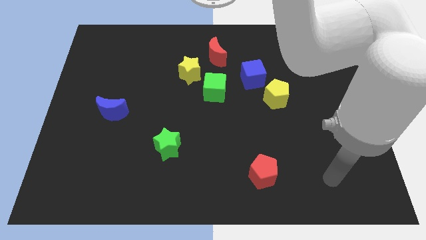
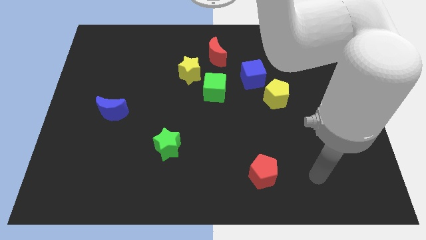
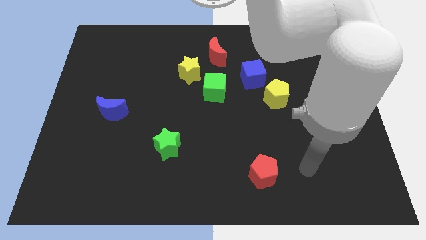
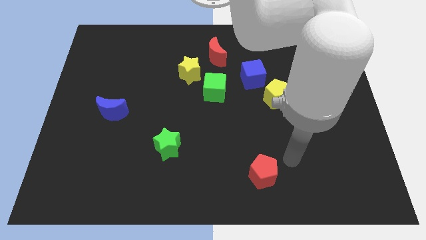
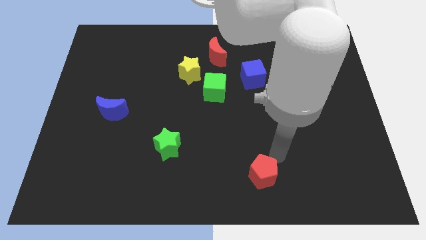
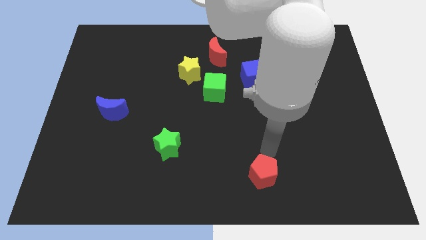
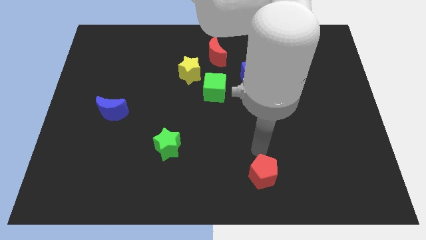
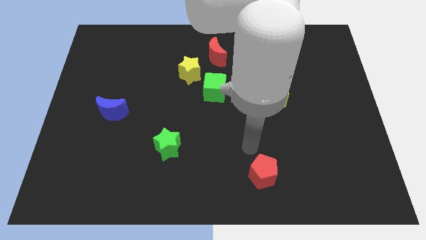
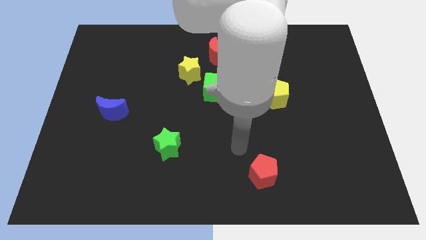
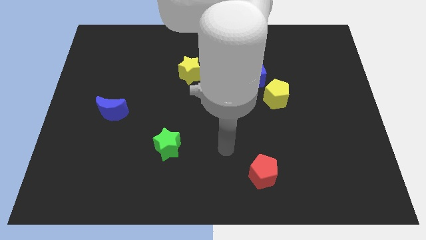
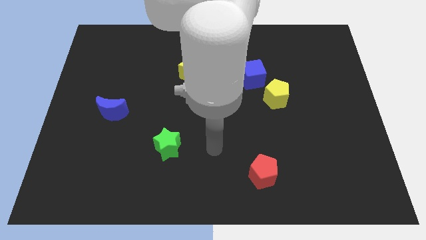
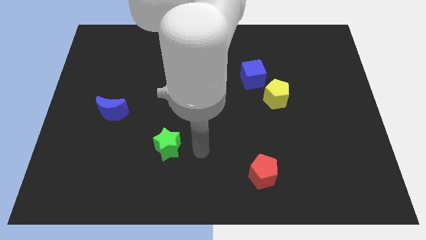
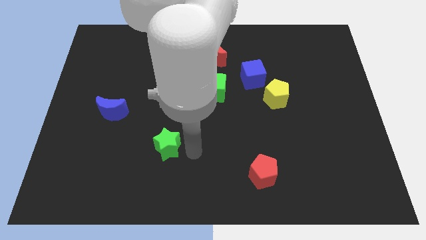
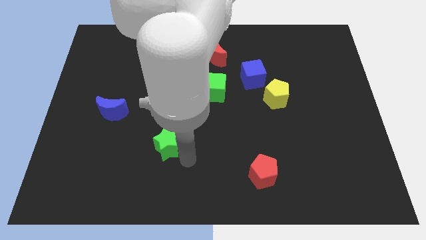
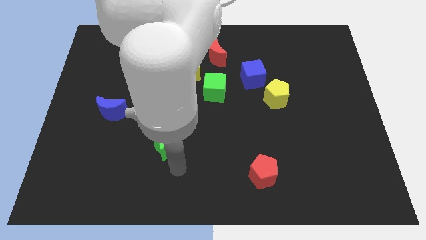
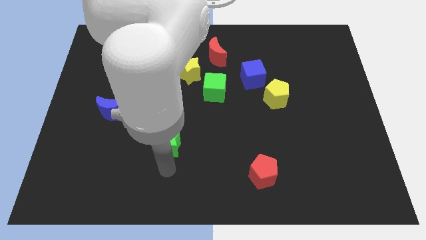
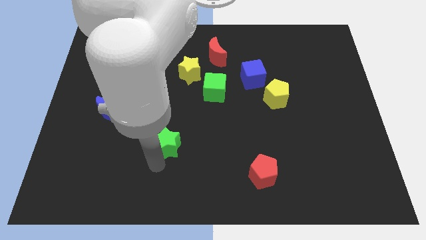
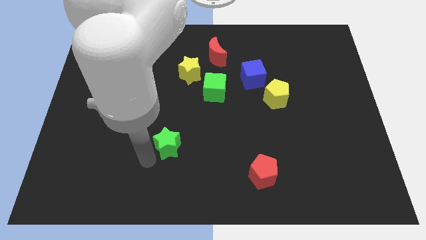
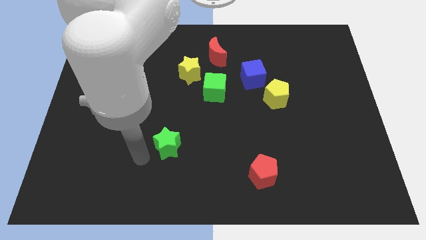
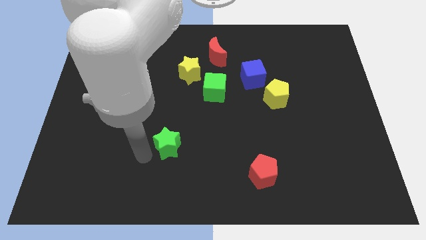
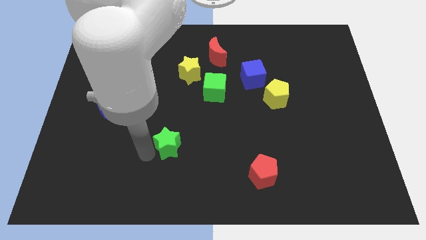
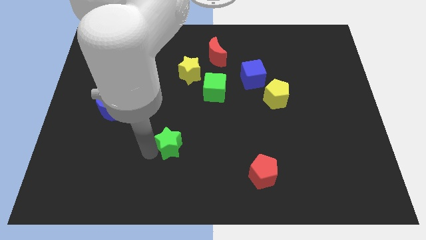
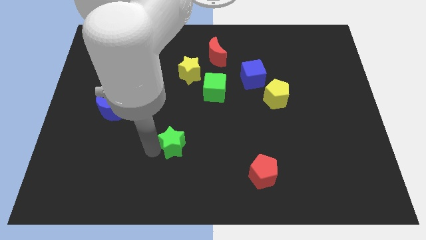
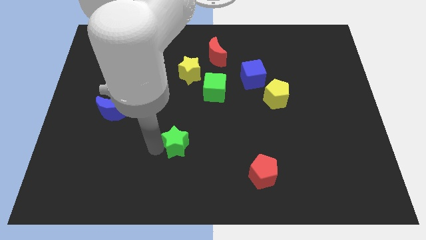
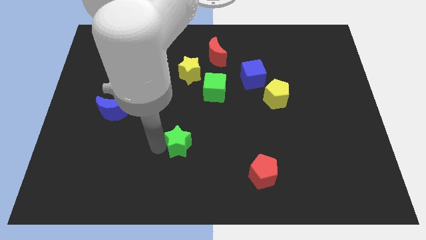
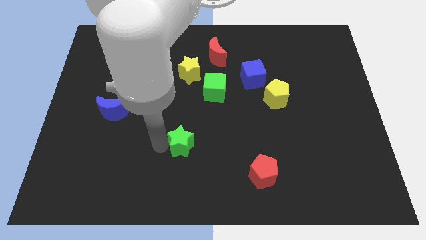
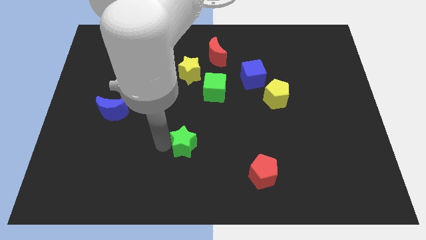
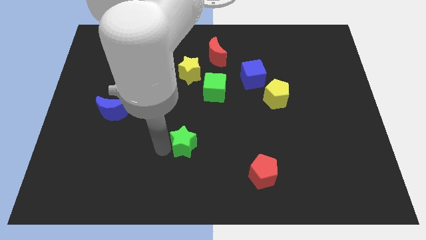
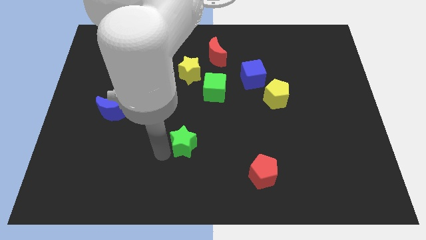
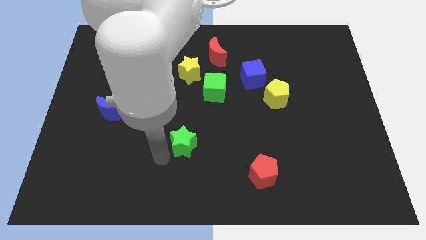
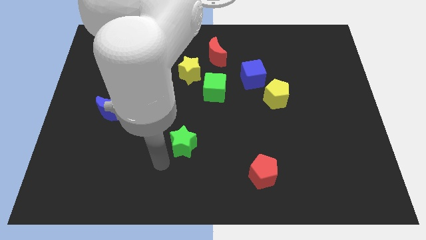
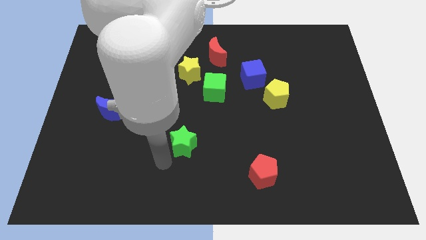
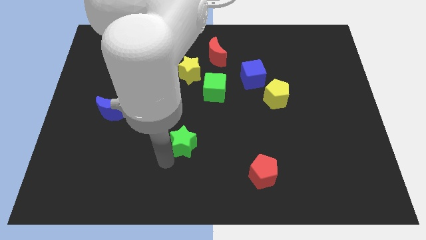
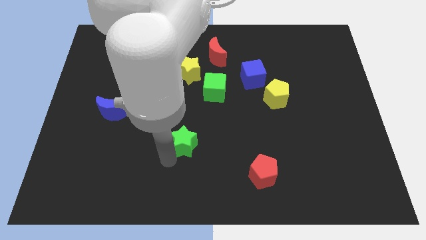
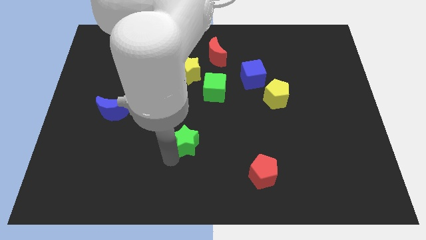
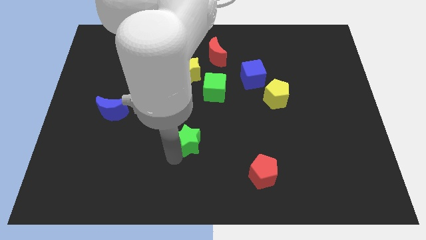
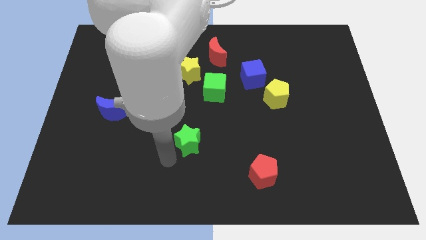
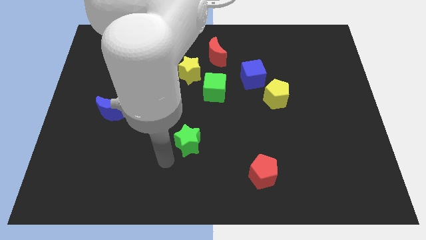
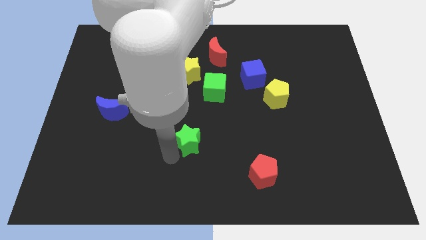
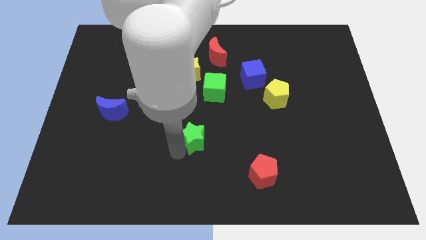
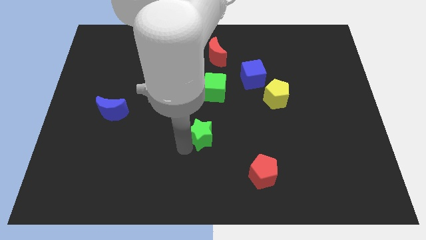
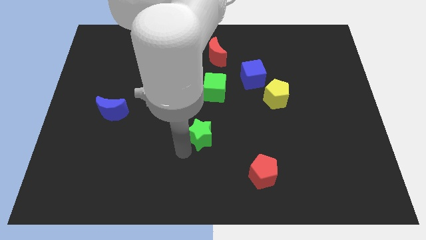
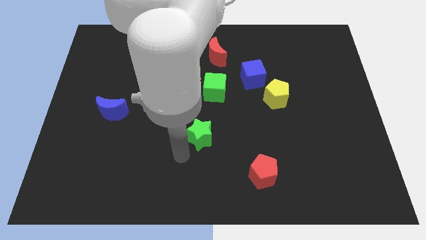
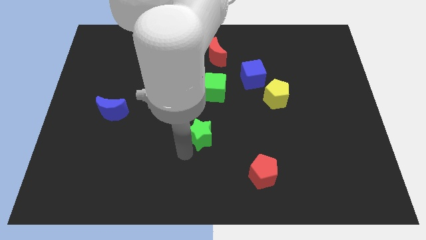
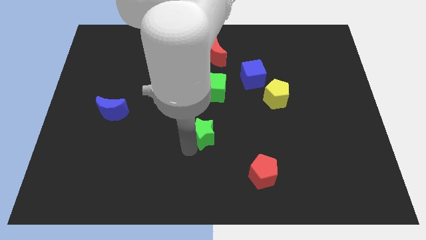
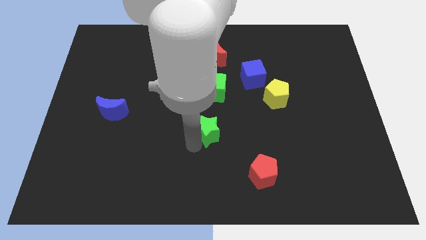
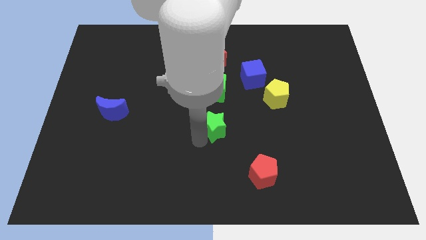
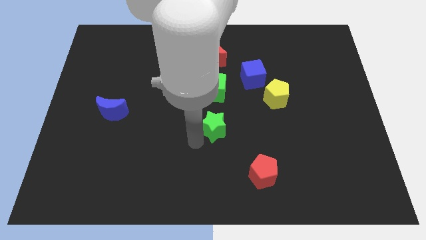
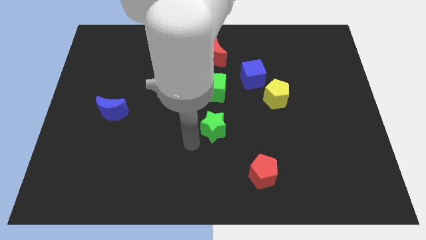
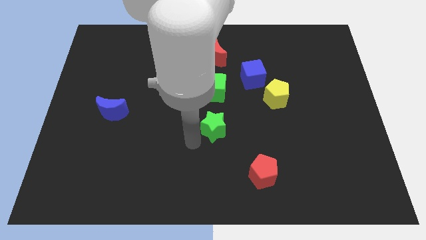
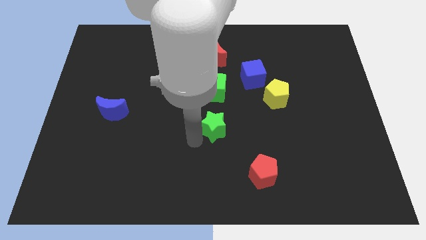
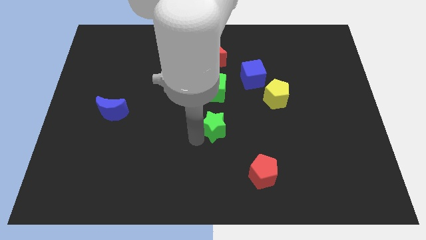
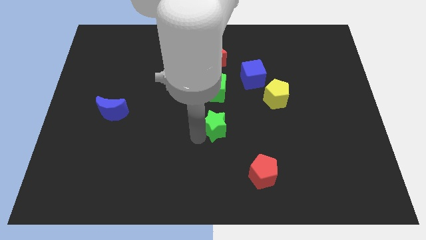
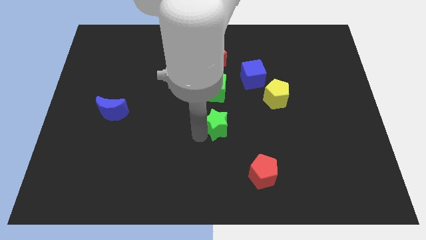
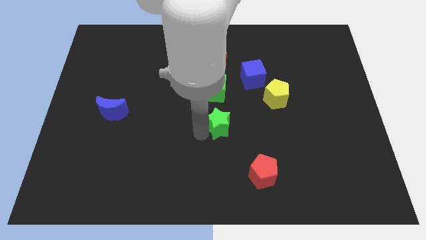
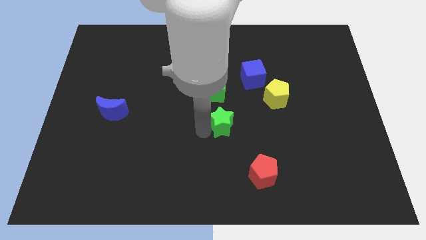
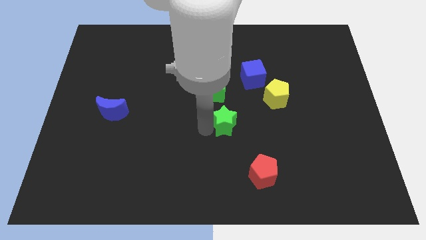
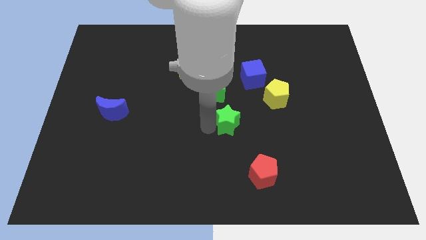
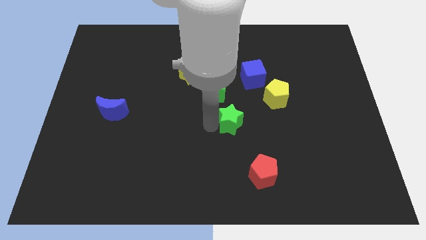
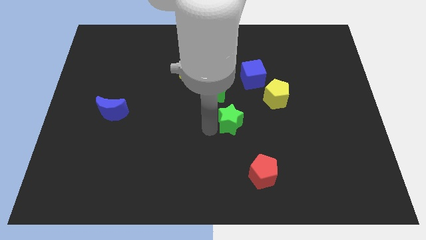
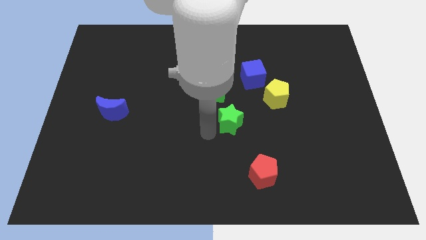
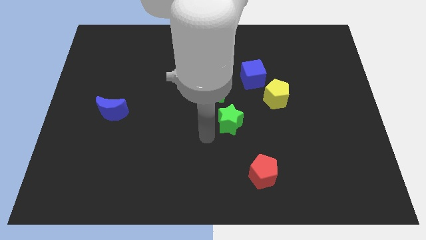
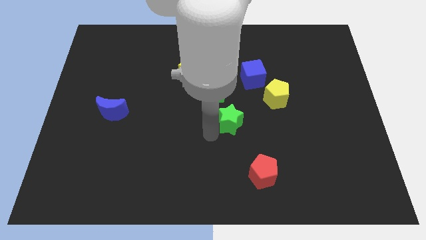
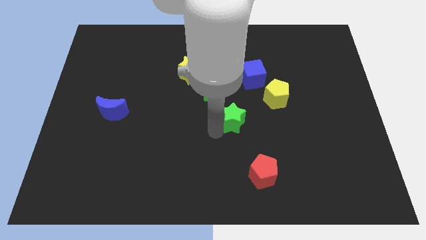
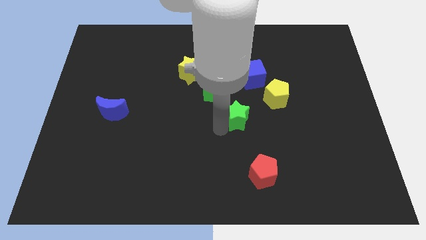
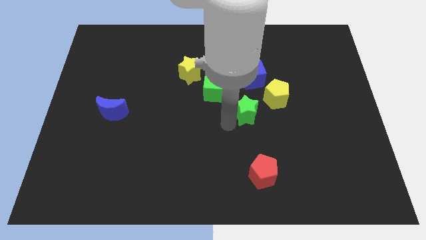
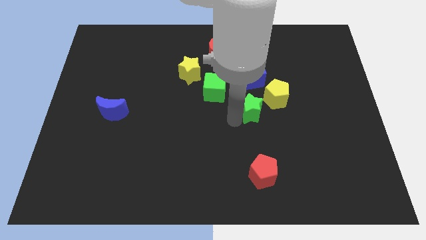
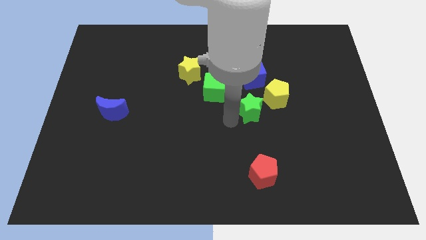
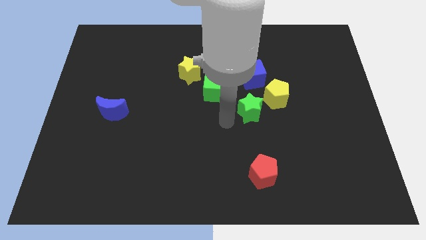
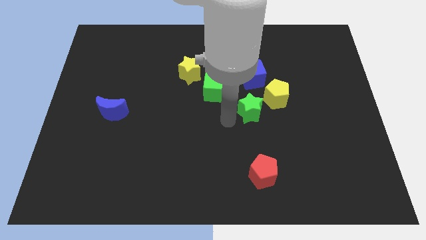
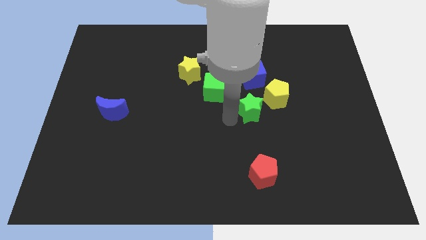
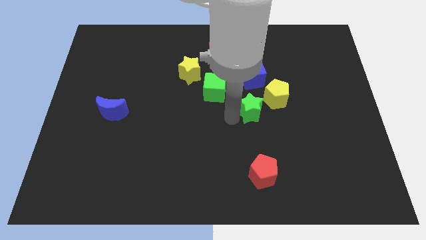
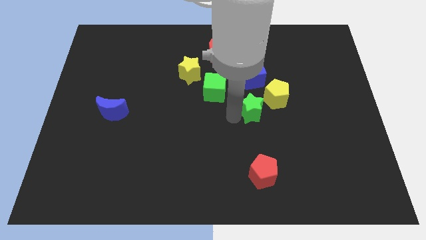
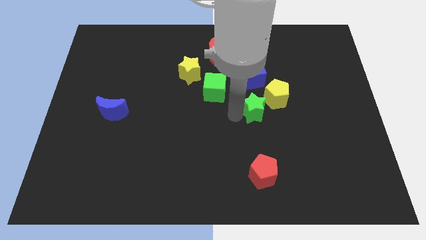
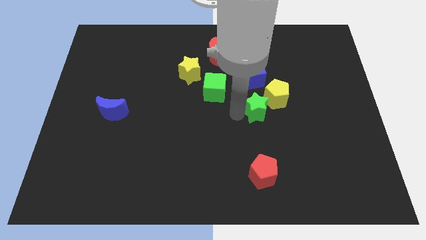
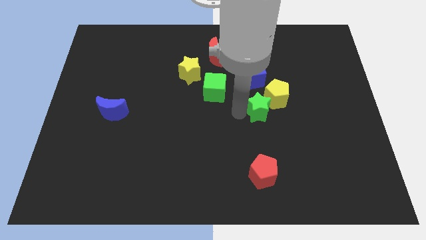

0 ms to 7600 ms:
push the green star next to the yellow pentagon

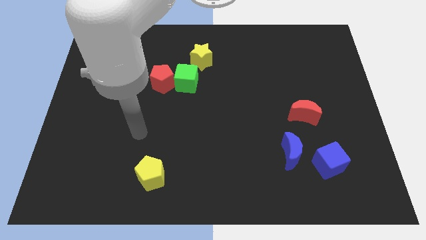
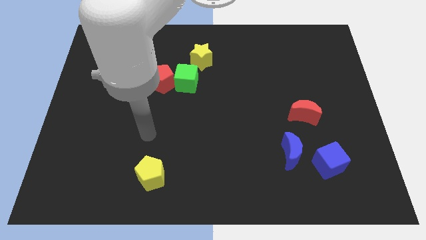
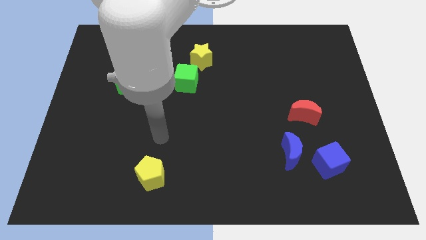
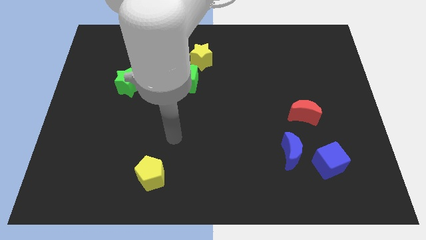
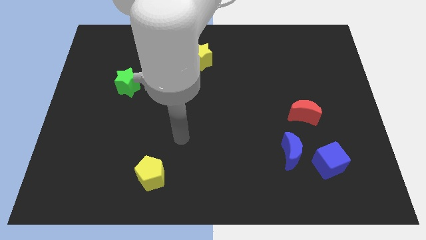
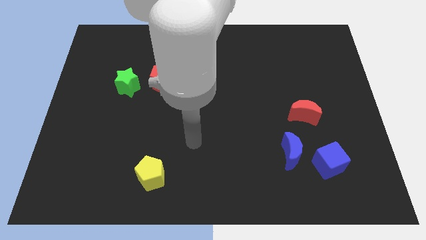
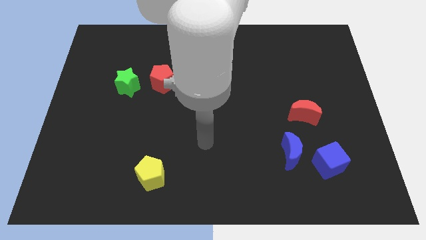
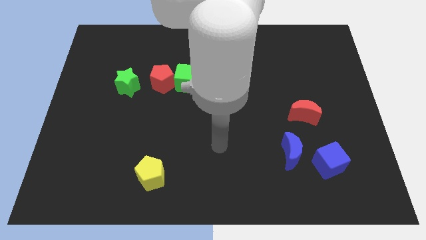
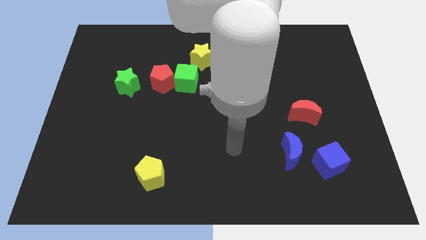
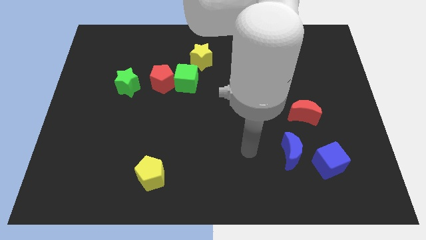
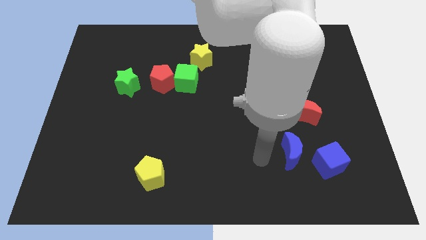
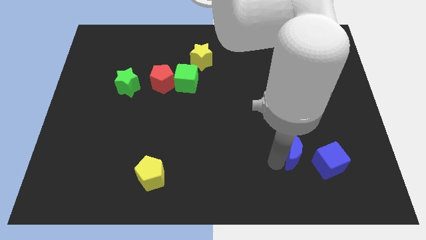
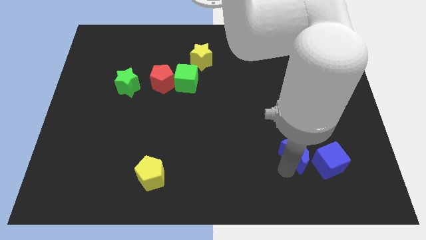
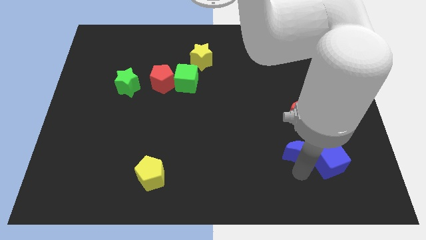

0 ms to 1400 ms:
move the blue cube towards the blue moon
